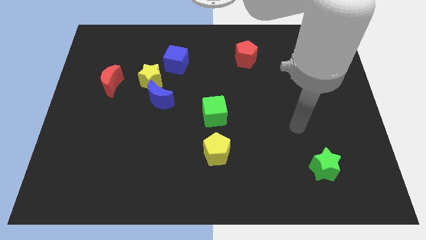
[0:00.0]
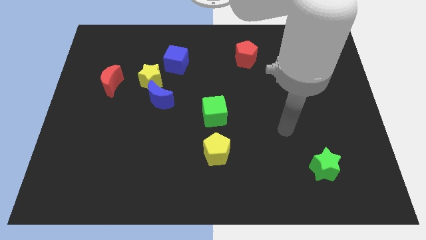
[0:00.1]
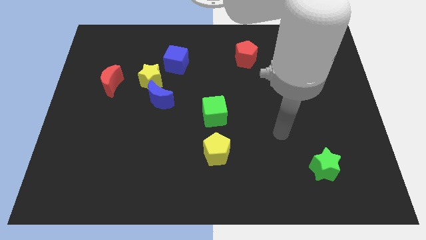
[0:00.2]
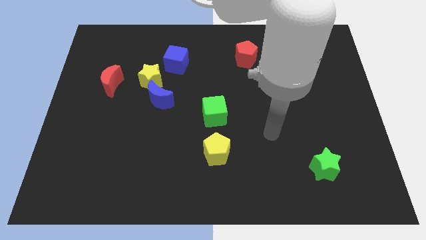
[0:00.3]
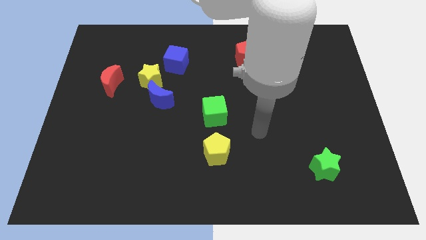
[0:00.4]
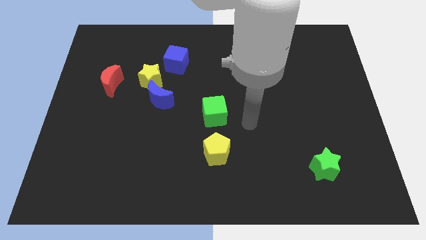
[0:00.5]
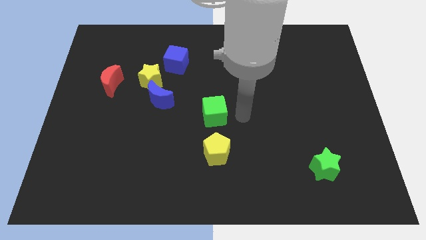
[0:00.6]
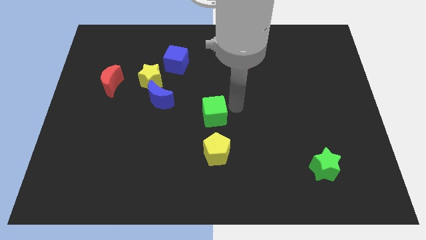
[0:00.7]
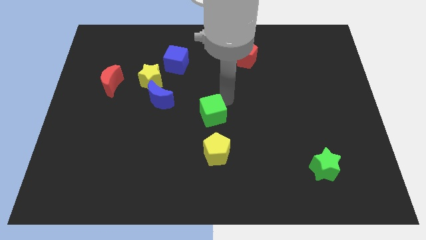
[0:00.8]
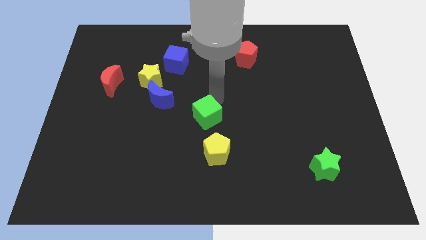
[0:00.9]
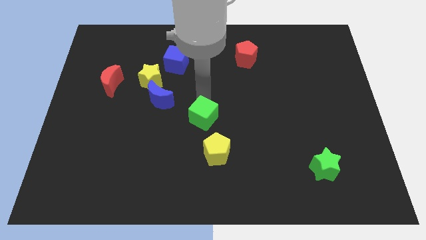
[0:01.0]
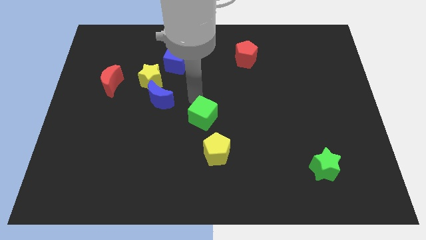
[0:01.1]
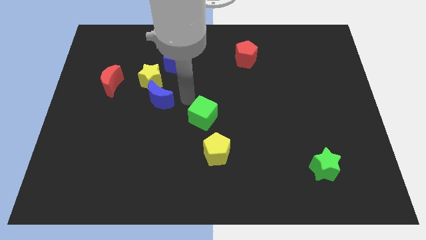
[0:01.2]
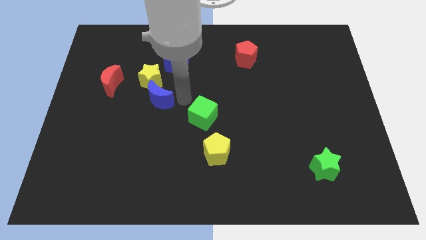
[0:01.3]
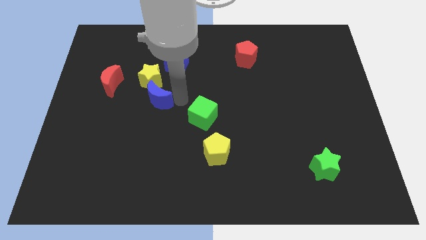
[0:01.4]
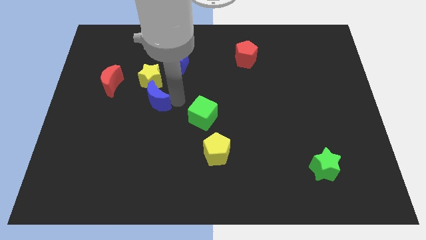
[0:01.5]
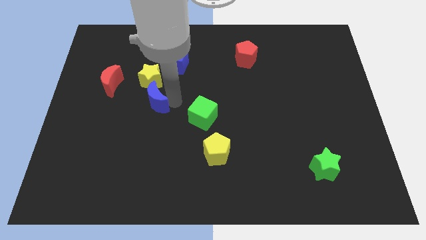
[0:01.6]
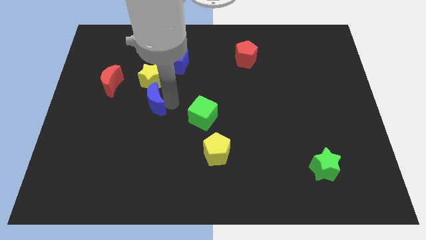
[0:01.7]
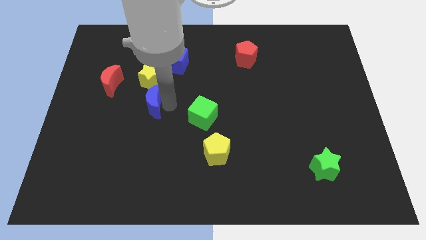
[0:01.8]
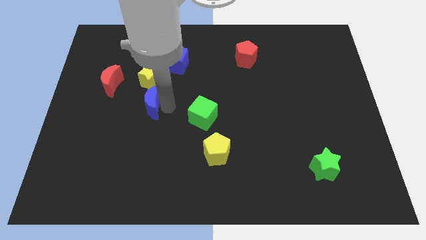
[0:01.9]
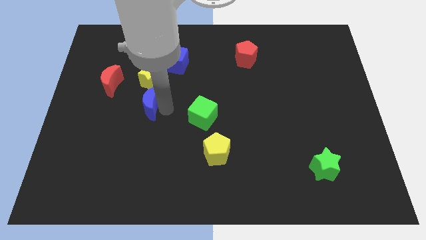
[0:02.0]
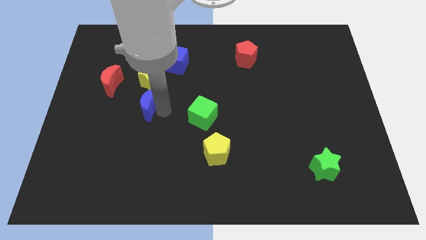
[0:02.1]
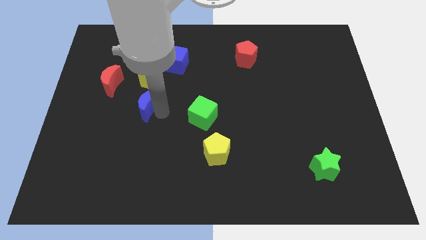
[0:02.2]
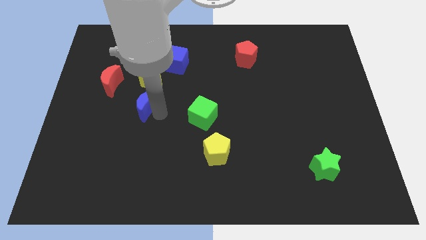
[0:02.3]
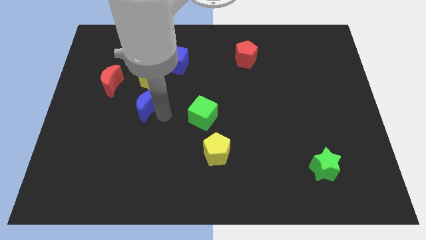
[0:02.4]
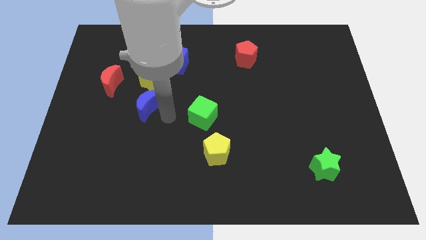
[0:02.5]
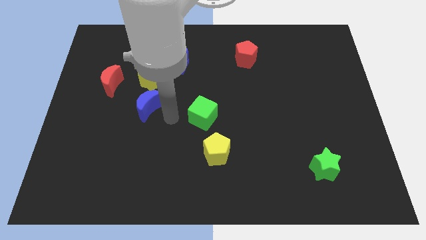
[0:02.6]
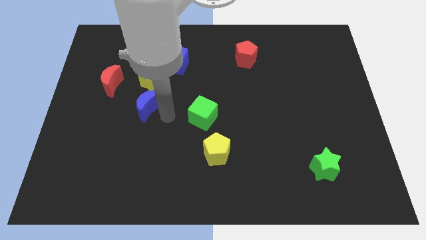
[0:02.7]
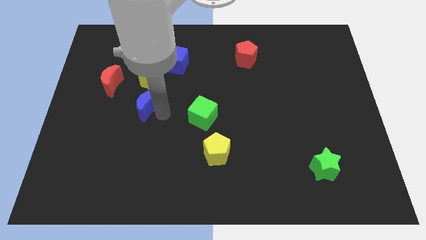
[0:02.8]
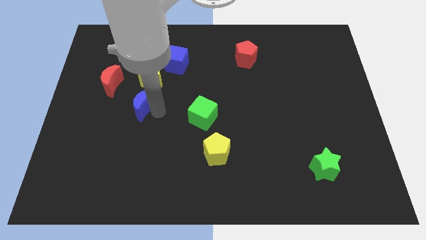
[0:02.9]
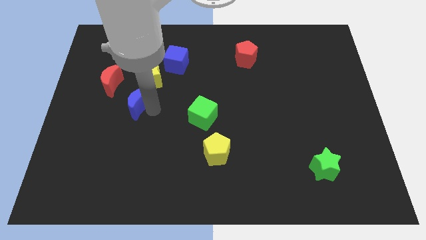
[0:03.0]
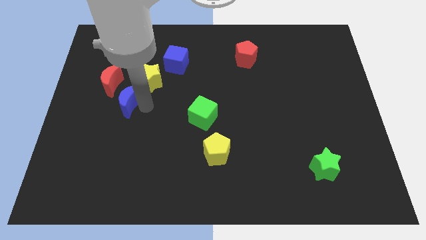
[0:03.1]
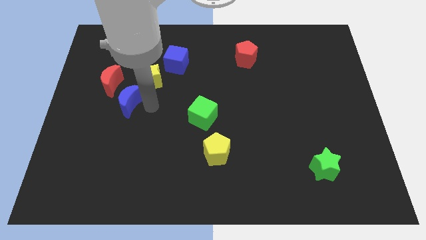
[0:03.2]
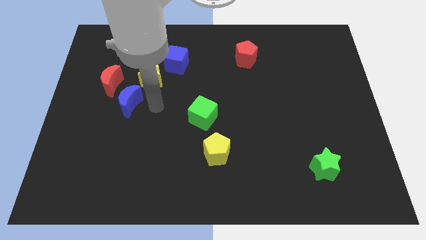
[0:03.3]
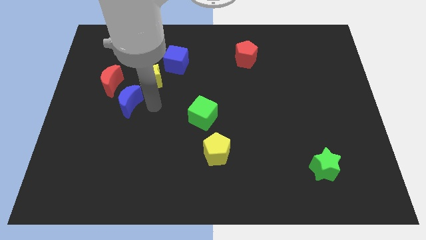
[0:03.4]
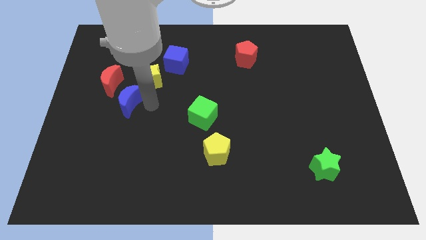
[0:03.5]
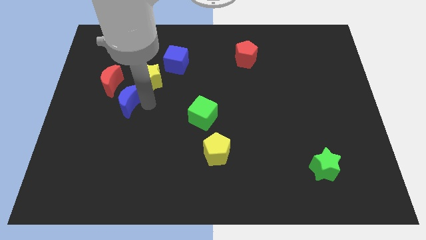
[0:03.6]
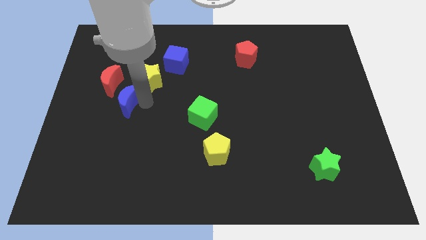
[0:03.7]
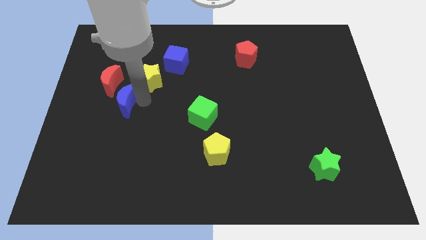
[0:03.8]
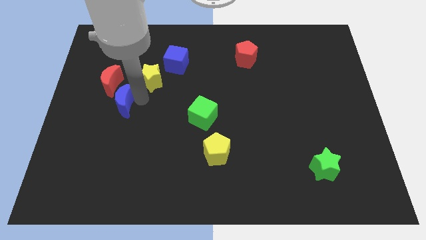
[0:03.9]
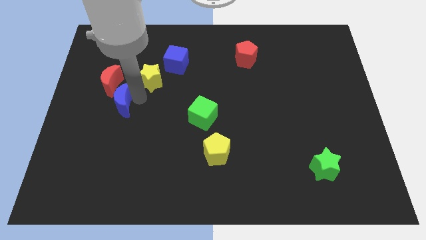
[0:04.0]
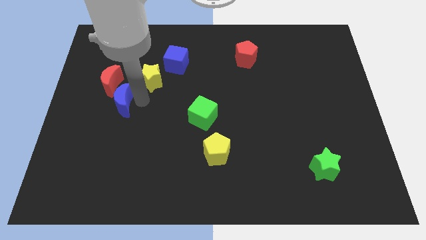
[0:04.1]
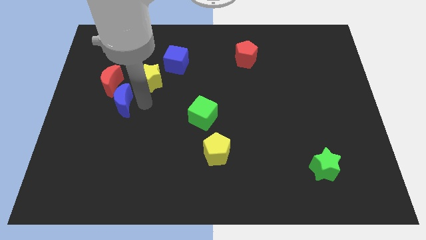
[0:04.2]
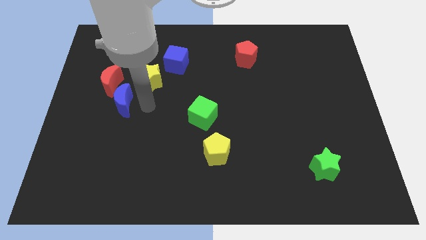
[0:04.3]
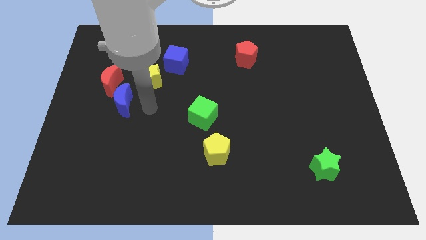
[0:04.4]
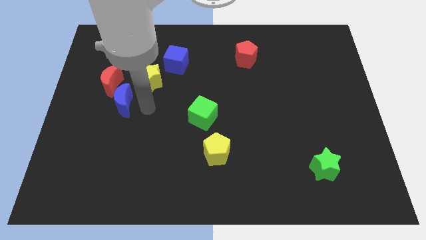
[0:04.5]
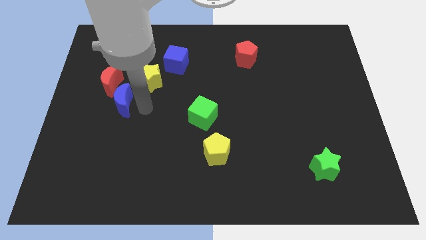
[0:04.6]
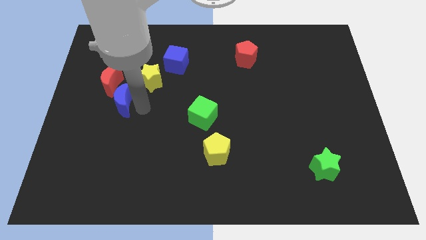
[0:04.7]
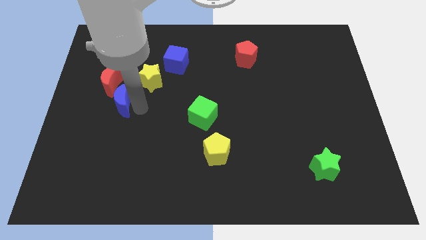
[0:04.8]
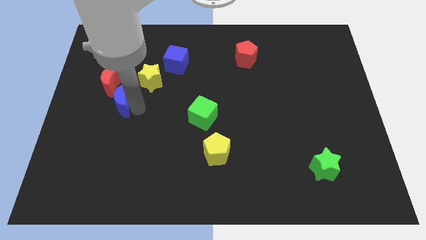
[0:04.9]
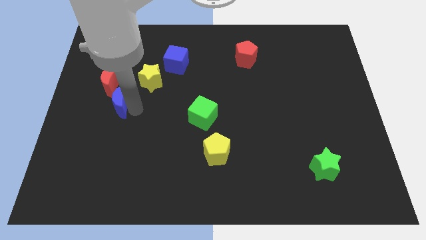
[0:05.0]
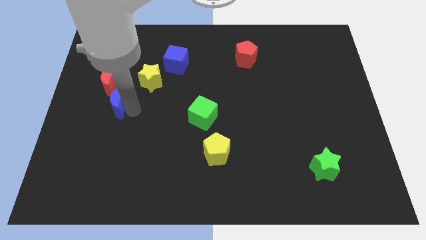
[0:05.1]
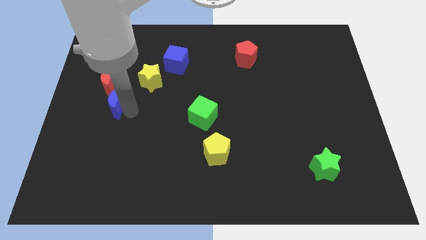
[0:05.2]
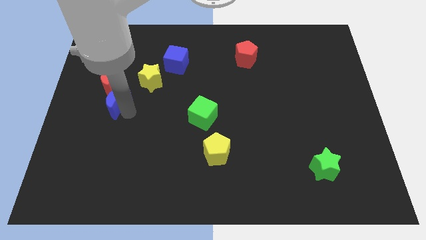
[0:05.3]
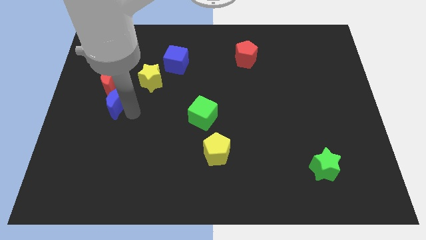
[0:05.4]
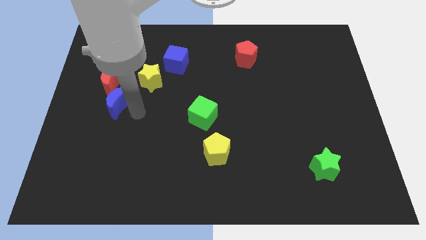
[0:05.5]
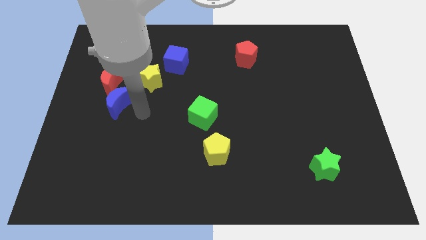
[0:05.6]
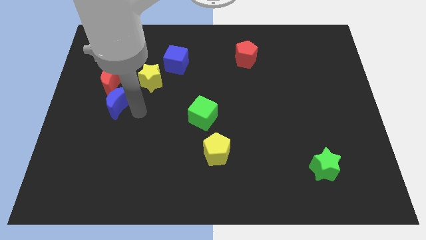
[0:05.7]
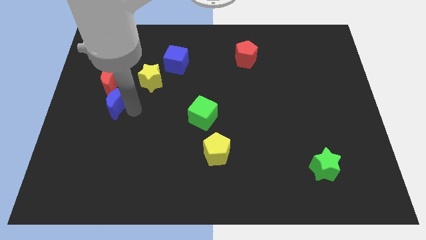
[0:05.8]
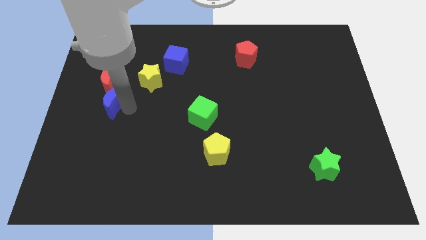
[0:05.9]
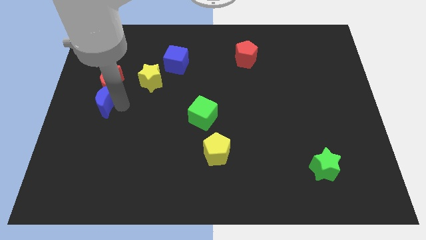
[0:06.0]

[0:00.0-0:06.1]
push the blue moon to the left side of the board

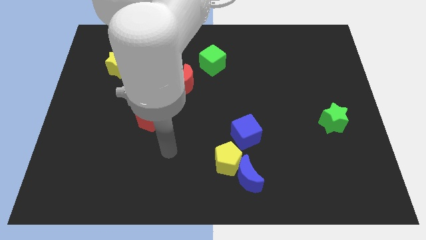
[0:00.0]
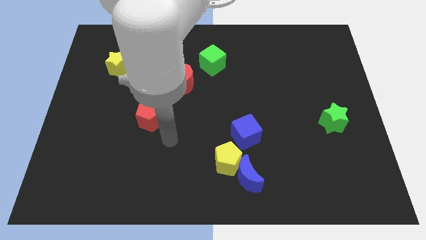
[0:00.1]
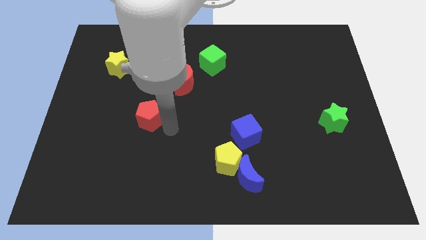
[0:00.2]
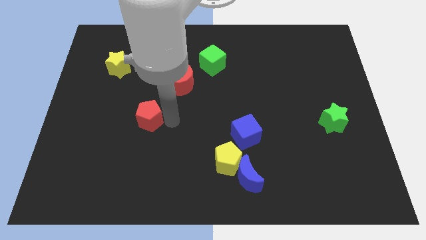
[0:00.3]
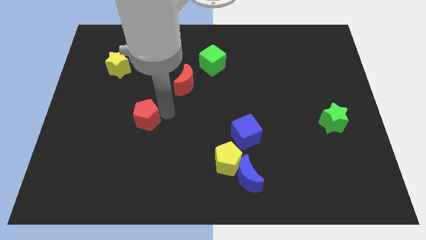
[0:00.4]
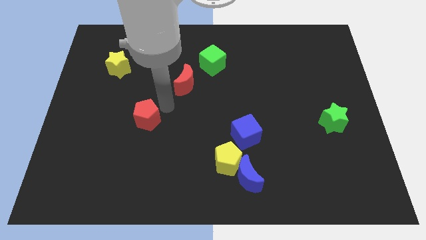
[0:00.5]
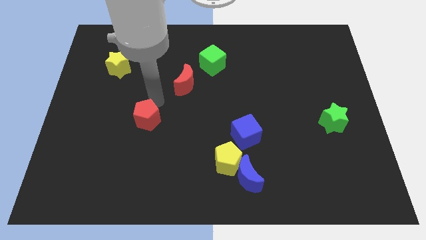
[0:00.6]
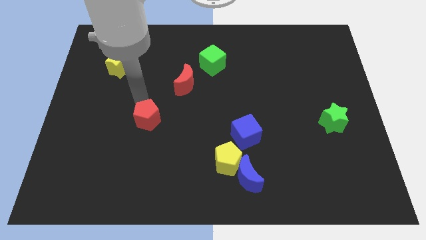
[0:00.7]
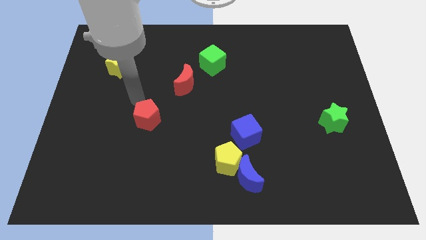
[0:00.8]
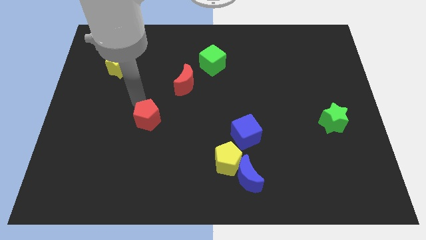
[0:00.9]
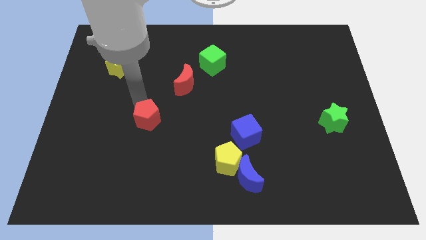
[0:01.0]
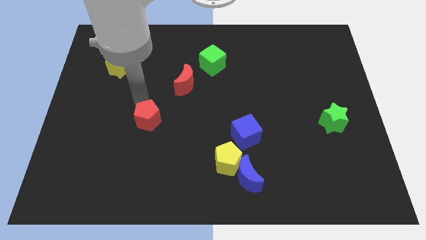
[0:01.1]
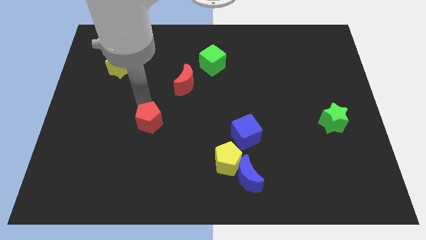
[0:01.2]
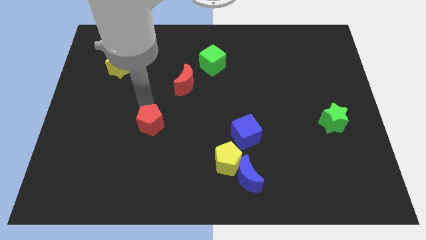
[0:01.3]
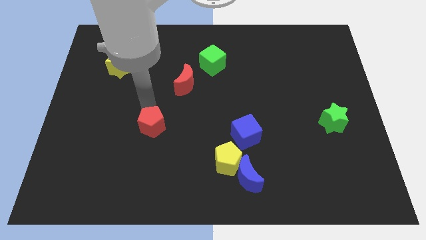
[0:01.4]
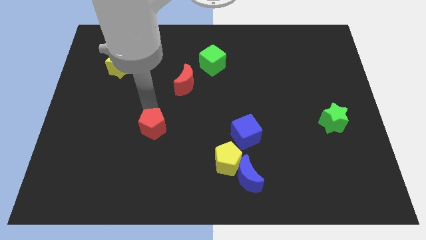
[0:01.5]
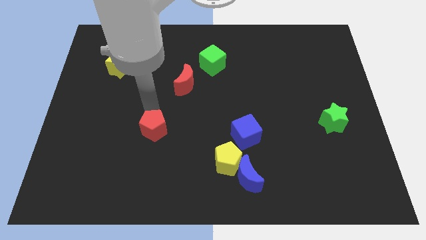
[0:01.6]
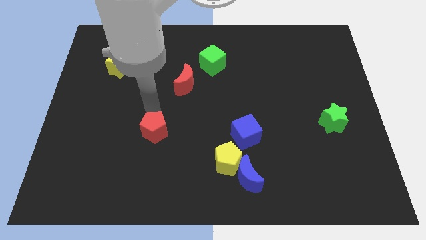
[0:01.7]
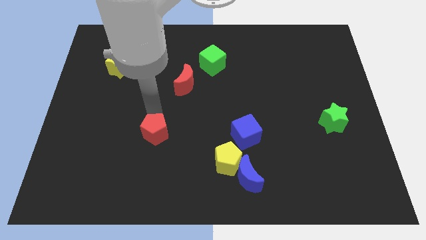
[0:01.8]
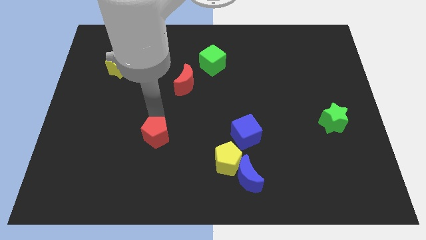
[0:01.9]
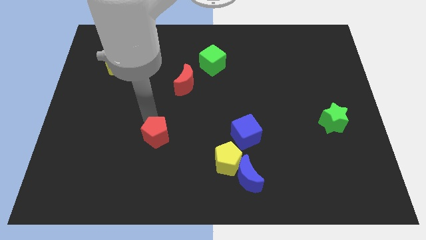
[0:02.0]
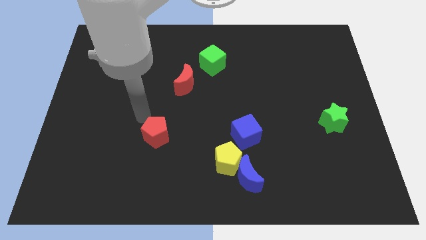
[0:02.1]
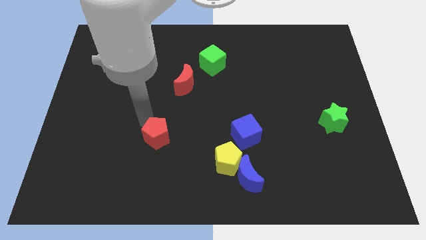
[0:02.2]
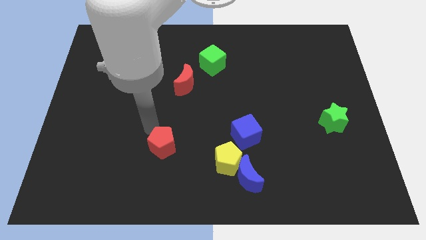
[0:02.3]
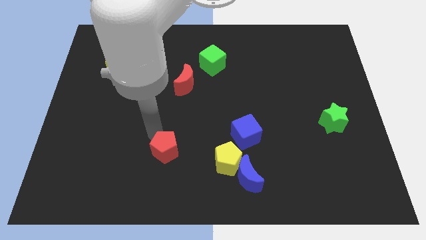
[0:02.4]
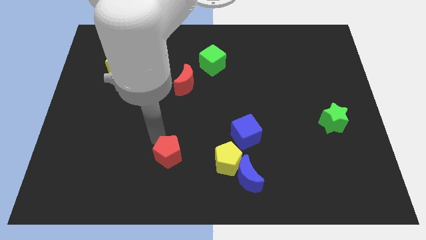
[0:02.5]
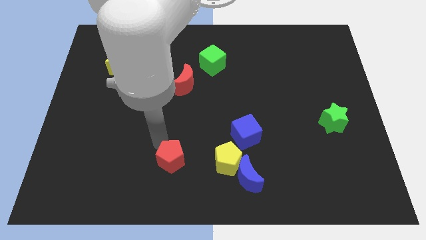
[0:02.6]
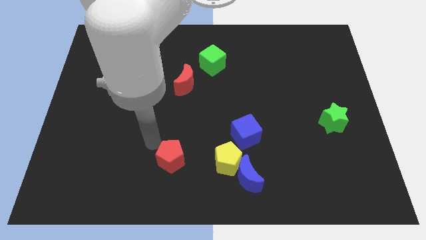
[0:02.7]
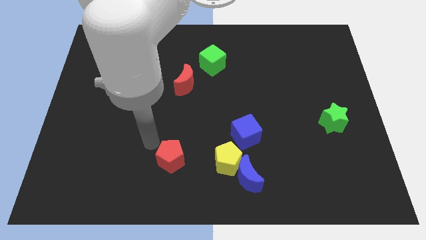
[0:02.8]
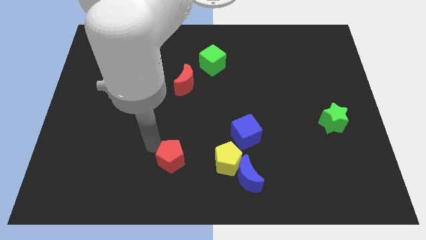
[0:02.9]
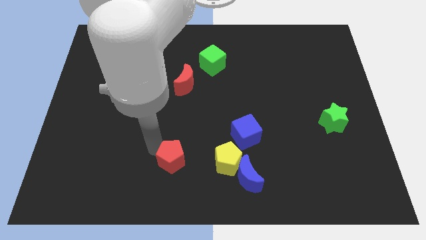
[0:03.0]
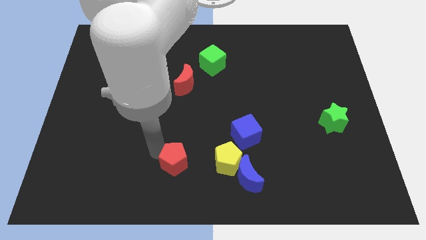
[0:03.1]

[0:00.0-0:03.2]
put the red pentagon to the bottom
